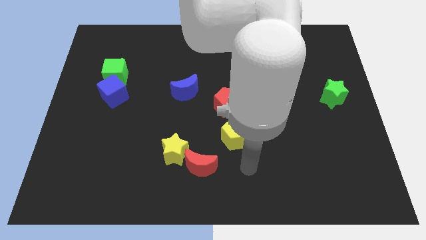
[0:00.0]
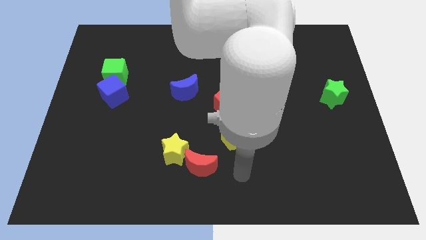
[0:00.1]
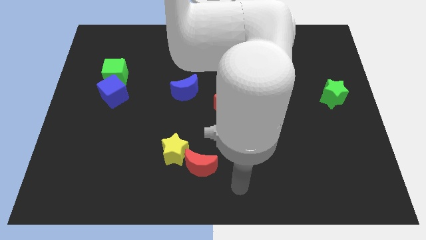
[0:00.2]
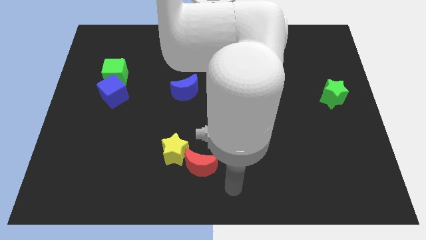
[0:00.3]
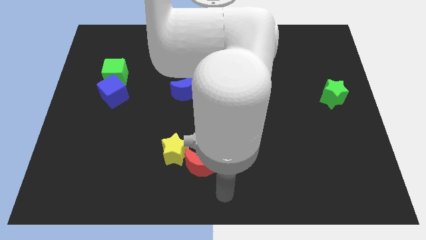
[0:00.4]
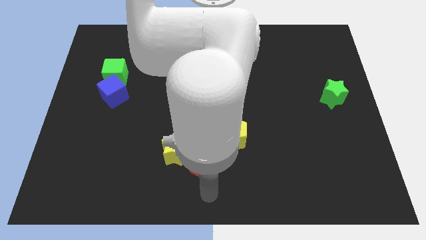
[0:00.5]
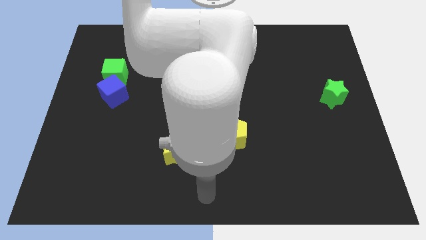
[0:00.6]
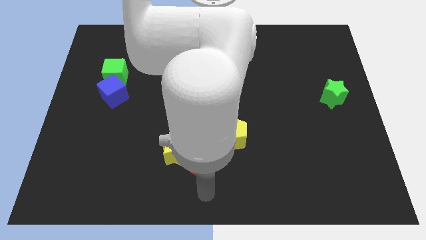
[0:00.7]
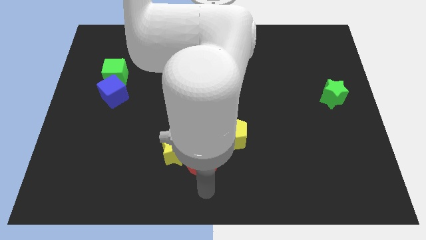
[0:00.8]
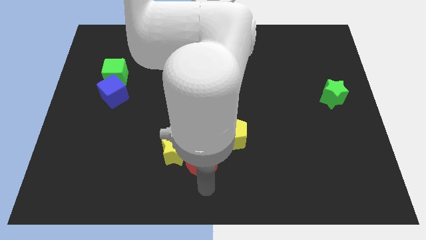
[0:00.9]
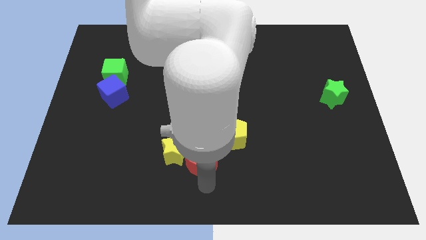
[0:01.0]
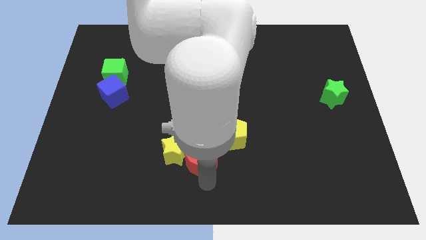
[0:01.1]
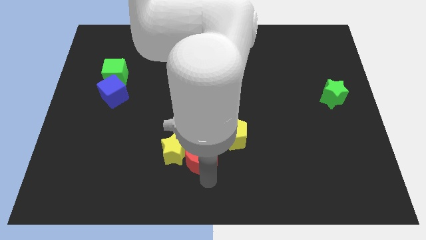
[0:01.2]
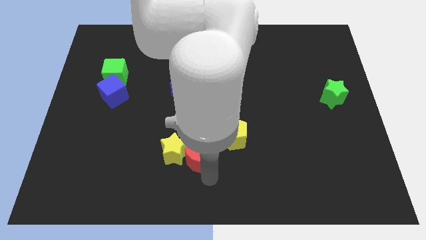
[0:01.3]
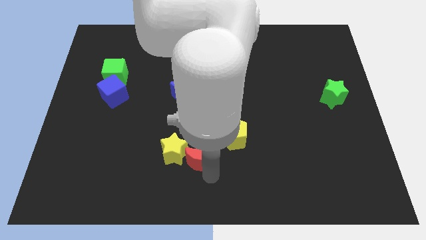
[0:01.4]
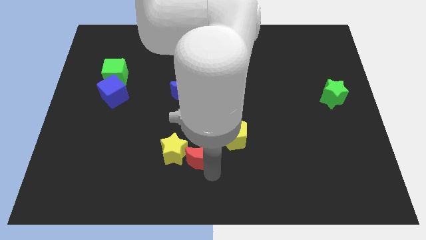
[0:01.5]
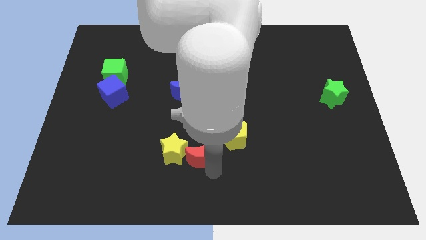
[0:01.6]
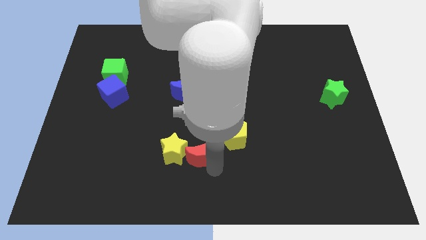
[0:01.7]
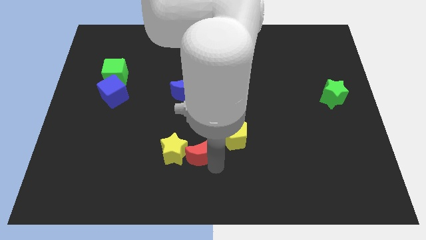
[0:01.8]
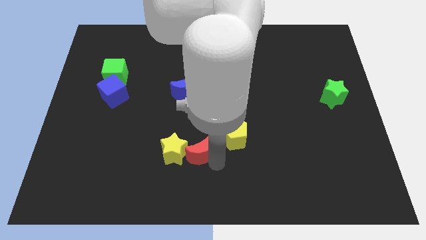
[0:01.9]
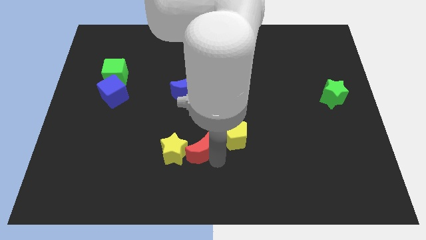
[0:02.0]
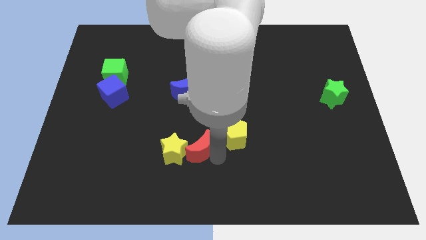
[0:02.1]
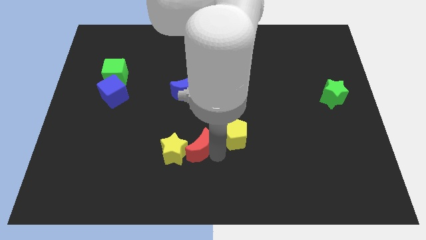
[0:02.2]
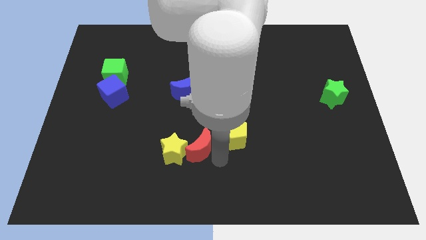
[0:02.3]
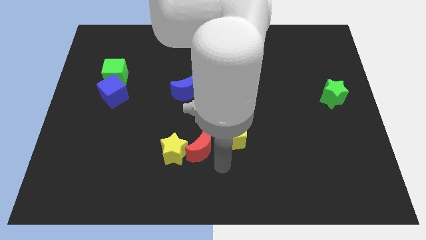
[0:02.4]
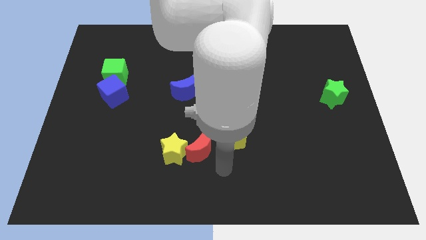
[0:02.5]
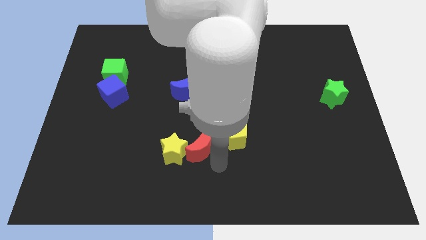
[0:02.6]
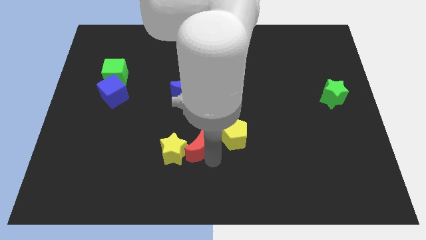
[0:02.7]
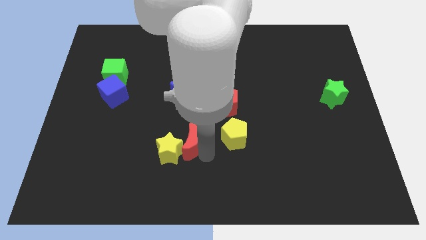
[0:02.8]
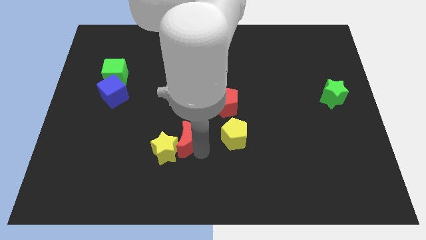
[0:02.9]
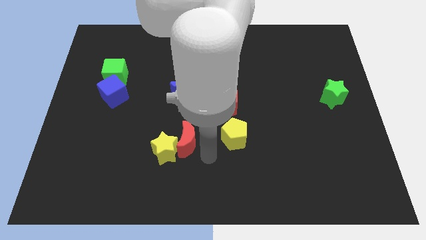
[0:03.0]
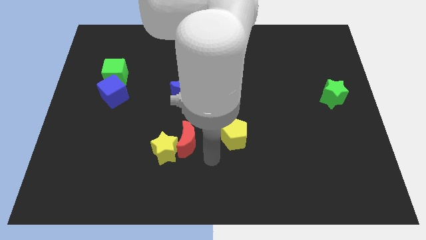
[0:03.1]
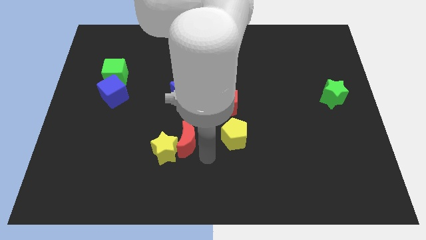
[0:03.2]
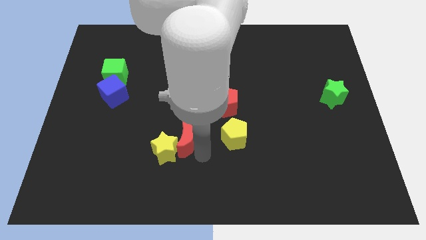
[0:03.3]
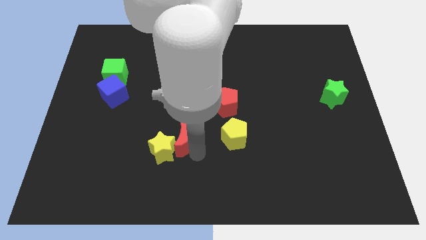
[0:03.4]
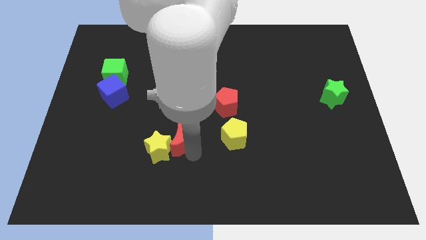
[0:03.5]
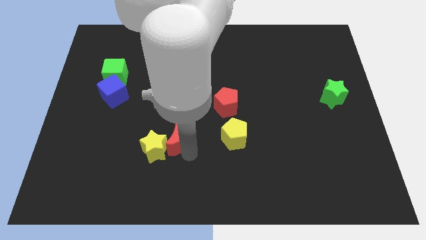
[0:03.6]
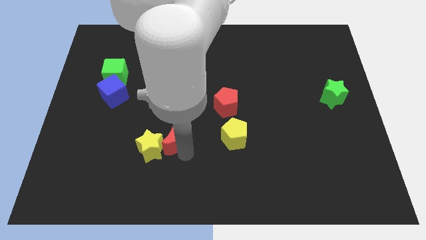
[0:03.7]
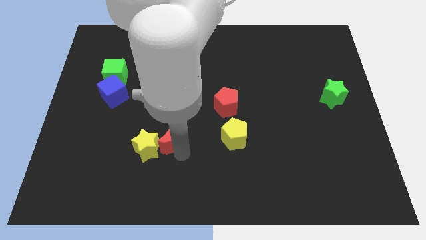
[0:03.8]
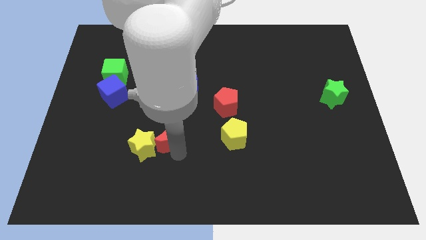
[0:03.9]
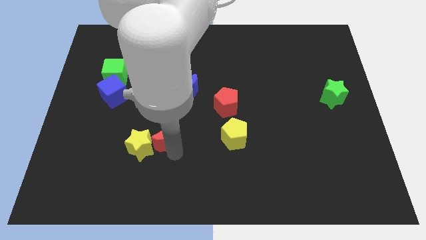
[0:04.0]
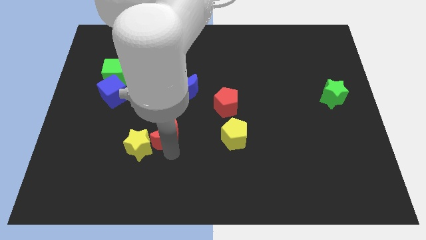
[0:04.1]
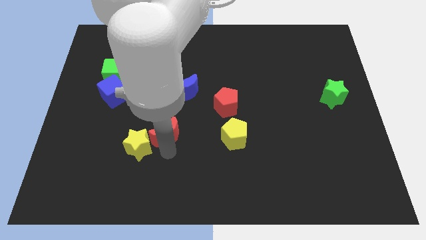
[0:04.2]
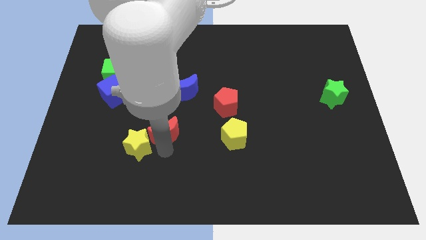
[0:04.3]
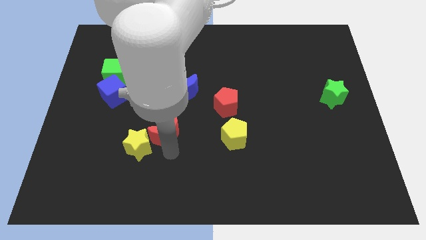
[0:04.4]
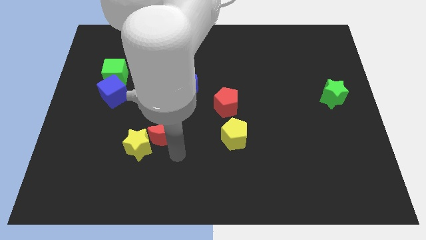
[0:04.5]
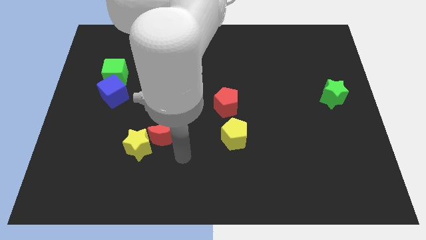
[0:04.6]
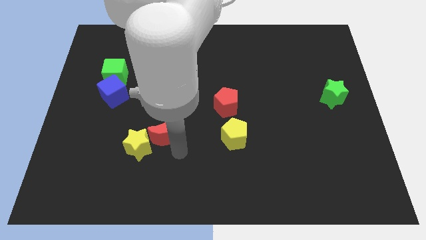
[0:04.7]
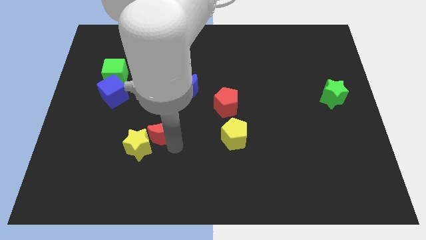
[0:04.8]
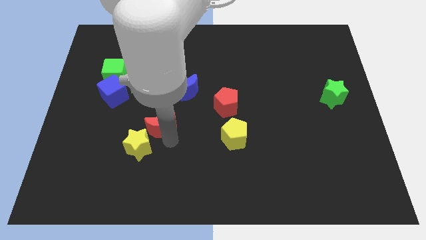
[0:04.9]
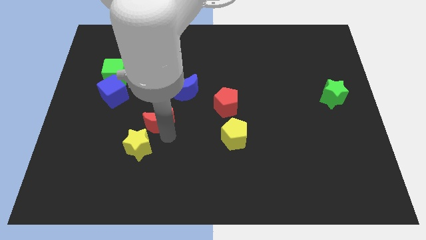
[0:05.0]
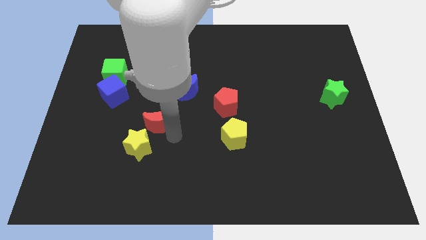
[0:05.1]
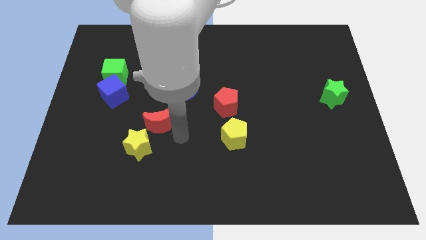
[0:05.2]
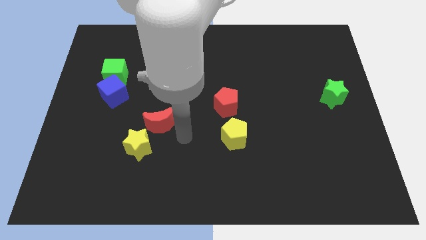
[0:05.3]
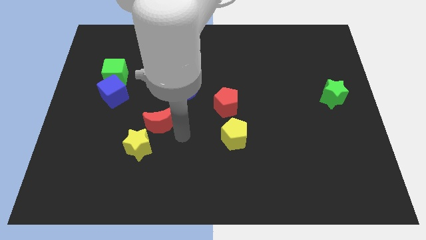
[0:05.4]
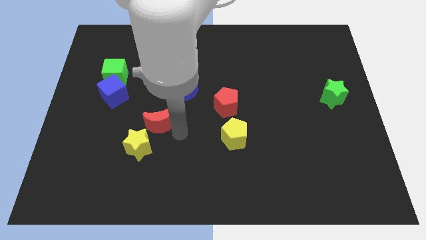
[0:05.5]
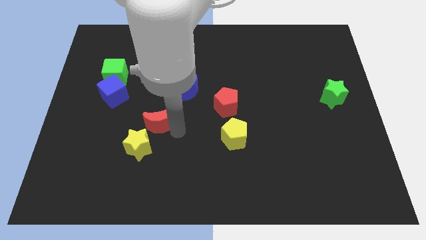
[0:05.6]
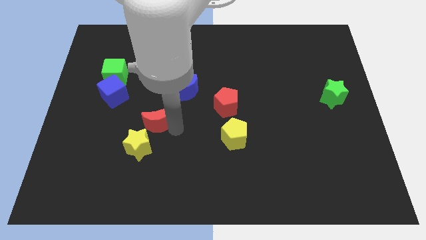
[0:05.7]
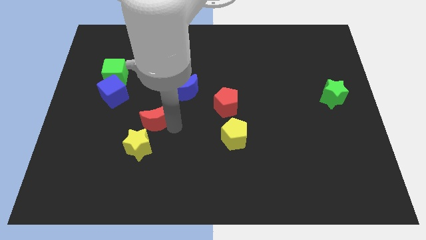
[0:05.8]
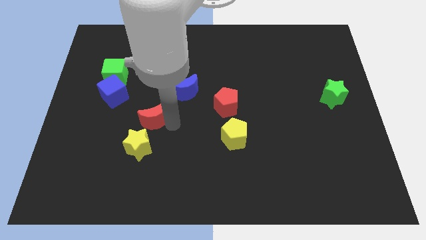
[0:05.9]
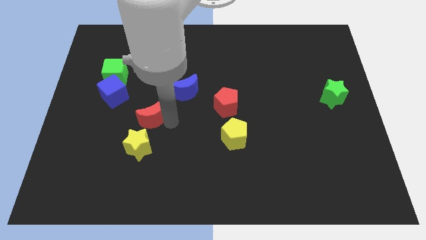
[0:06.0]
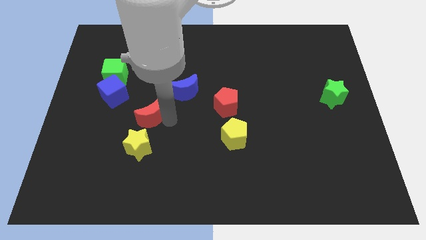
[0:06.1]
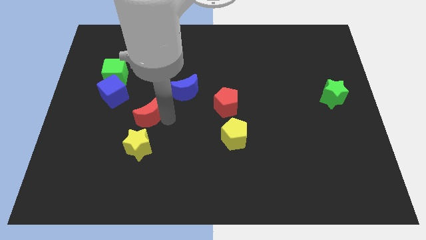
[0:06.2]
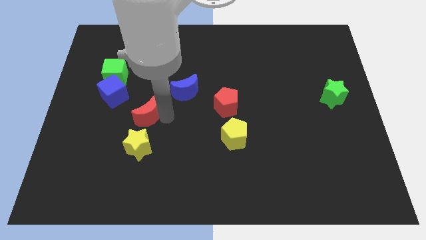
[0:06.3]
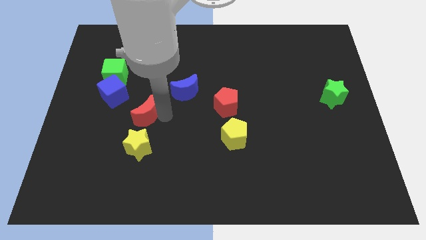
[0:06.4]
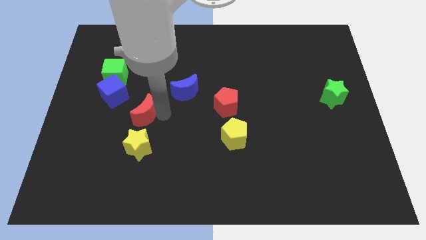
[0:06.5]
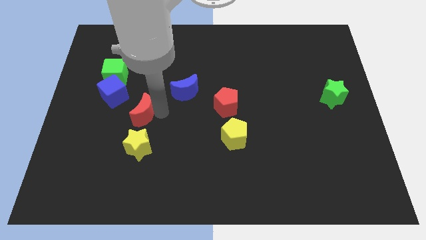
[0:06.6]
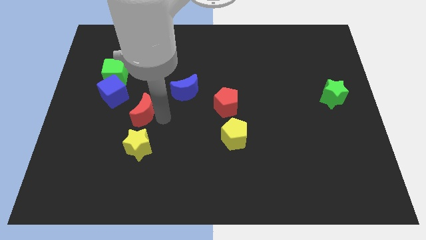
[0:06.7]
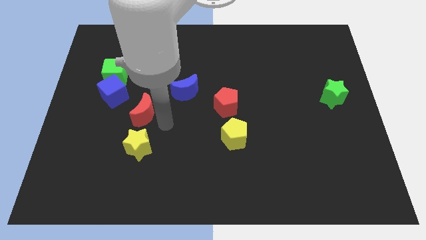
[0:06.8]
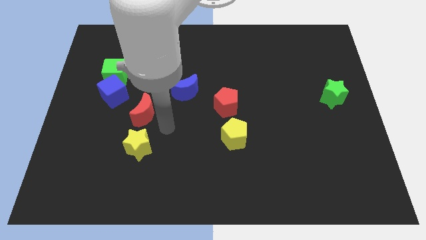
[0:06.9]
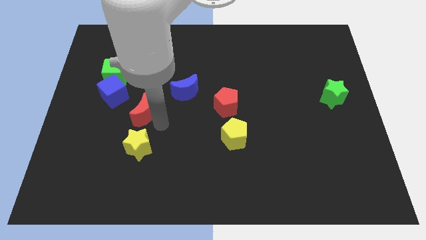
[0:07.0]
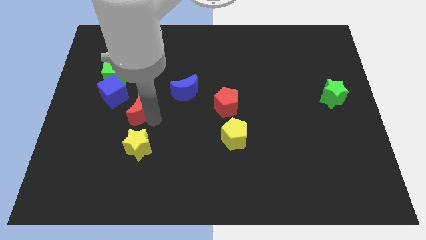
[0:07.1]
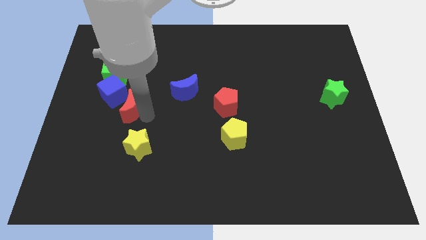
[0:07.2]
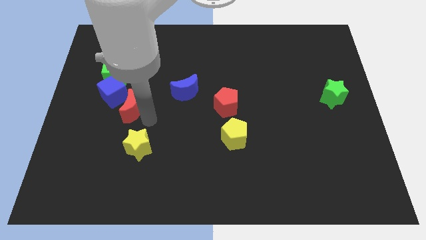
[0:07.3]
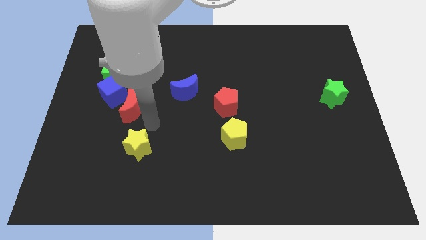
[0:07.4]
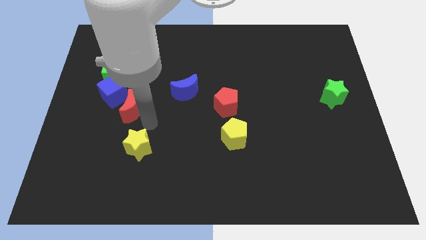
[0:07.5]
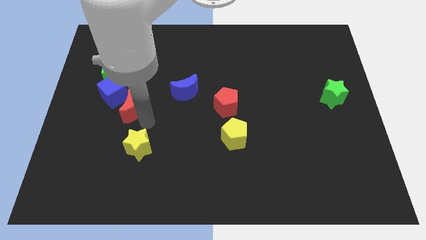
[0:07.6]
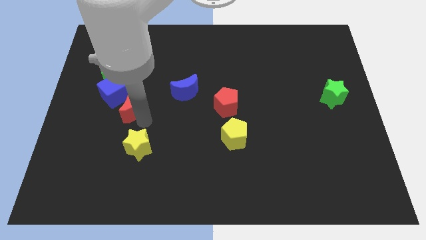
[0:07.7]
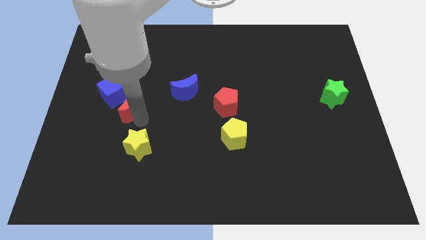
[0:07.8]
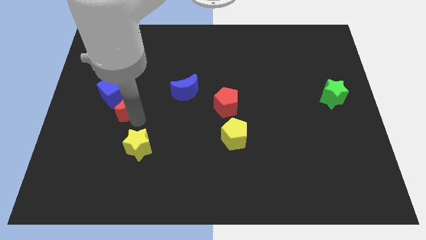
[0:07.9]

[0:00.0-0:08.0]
put the red moon next to the blue cube
